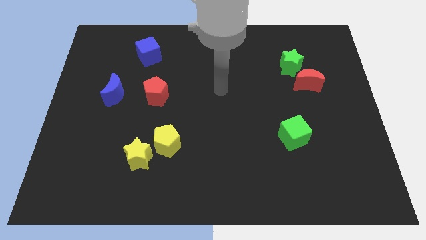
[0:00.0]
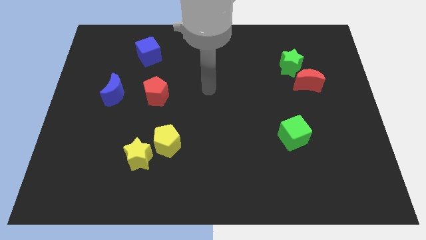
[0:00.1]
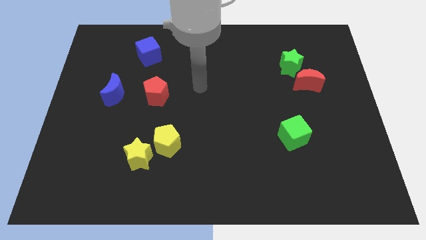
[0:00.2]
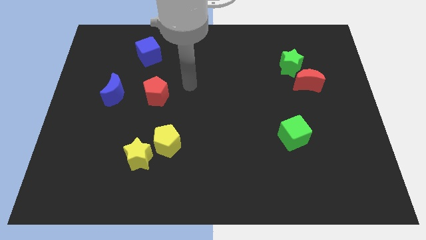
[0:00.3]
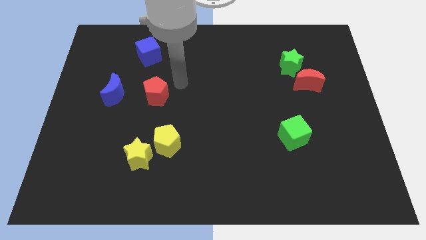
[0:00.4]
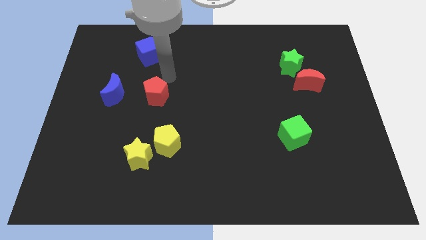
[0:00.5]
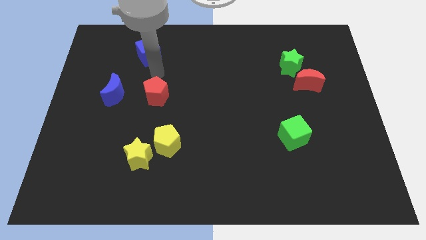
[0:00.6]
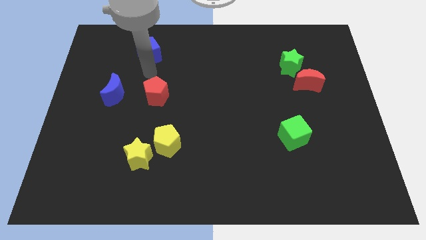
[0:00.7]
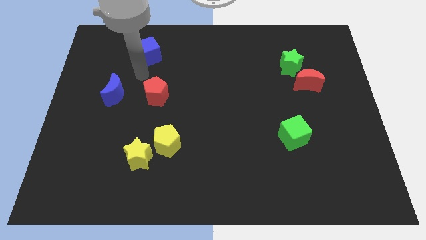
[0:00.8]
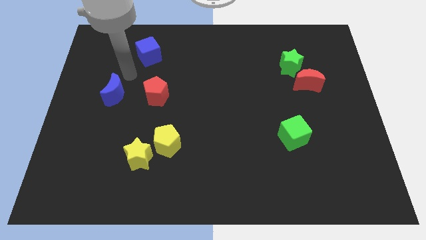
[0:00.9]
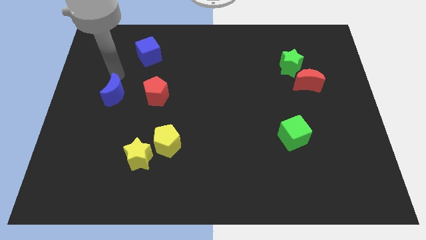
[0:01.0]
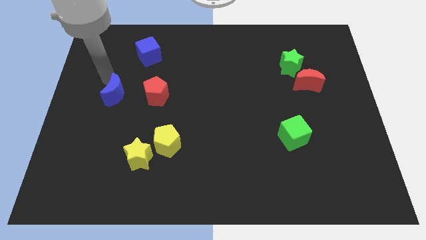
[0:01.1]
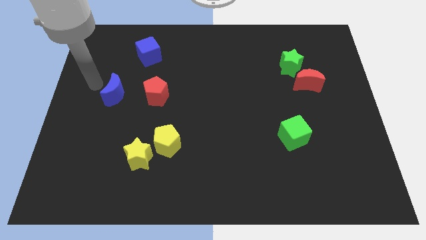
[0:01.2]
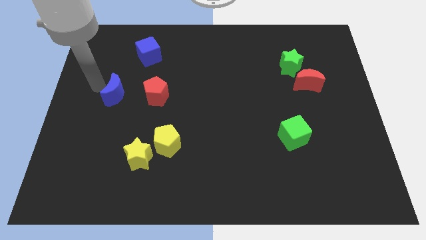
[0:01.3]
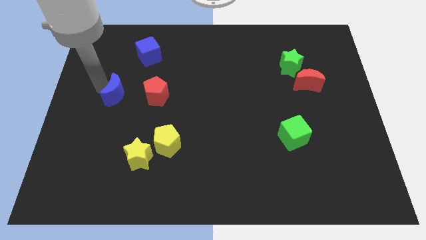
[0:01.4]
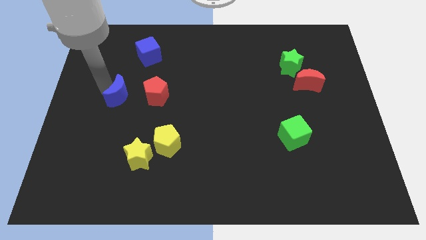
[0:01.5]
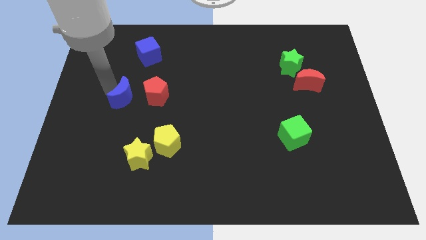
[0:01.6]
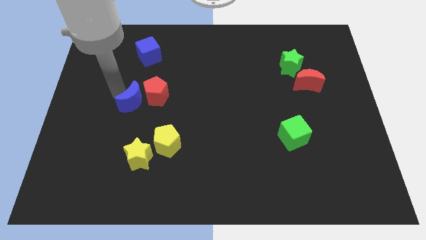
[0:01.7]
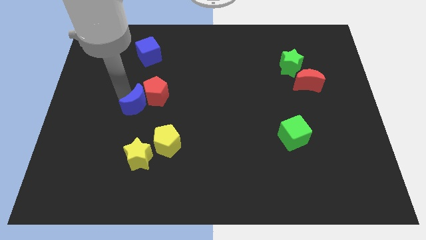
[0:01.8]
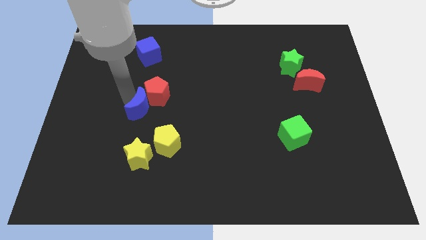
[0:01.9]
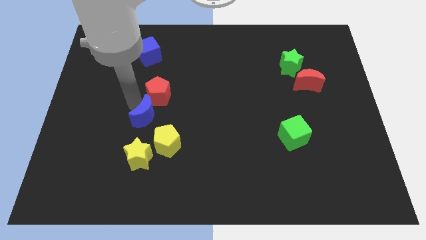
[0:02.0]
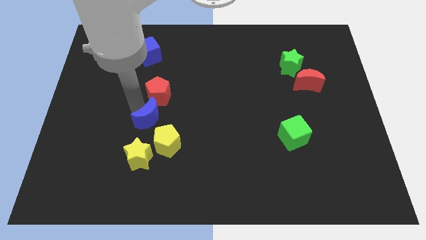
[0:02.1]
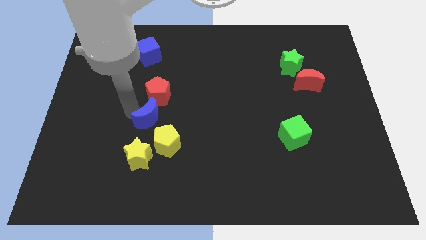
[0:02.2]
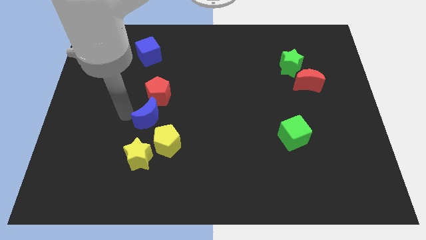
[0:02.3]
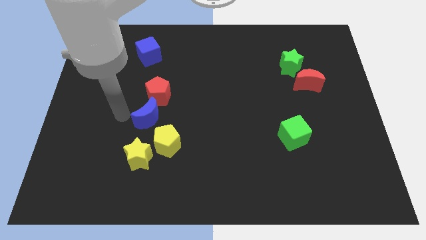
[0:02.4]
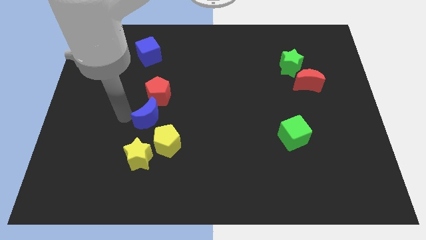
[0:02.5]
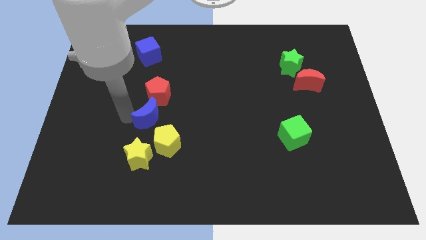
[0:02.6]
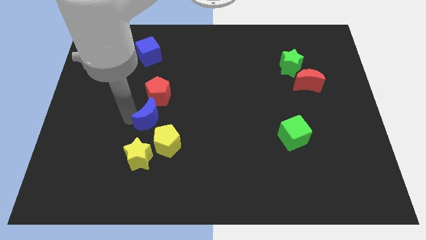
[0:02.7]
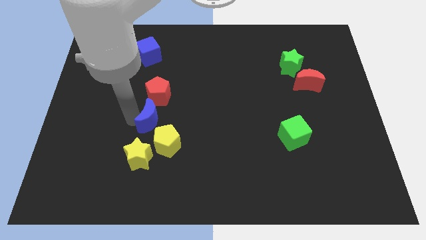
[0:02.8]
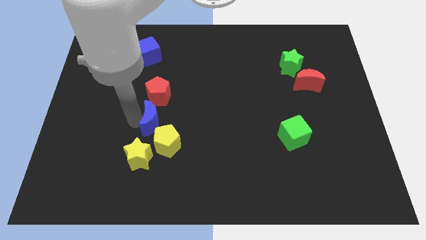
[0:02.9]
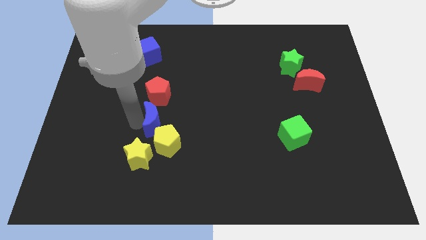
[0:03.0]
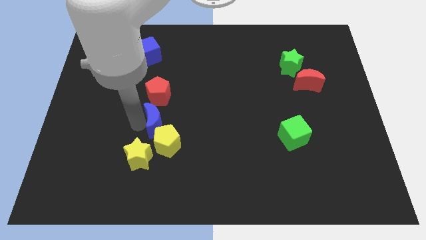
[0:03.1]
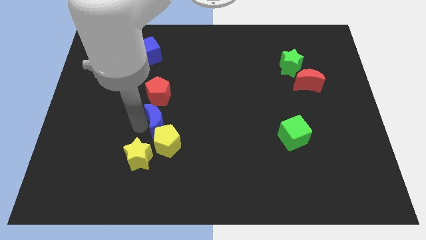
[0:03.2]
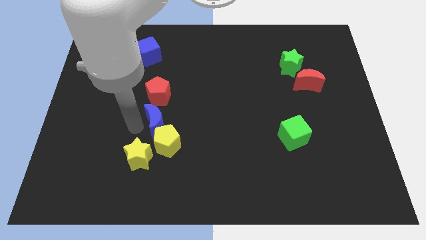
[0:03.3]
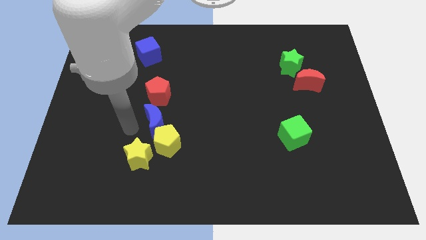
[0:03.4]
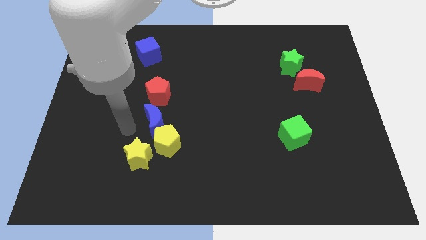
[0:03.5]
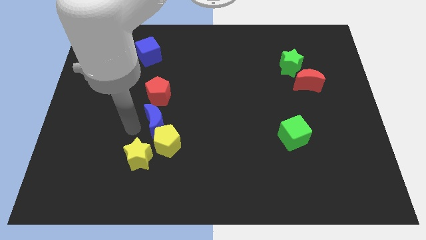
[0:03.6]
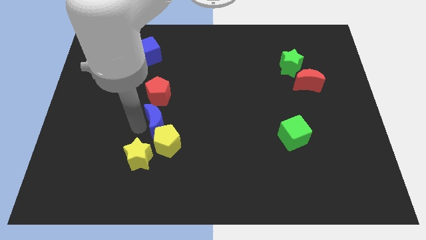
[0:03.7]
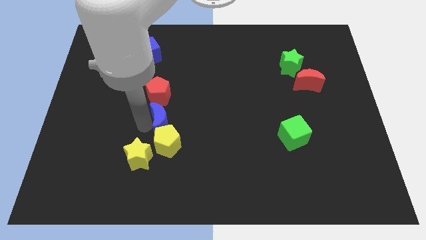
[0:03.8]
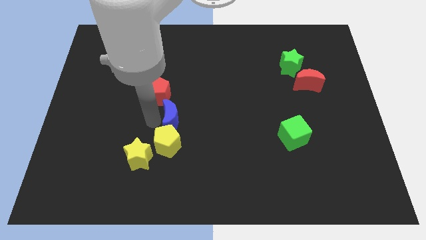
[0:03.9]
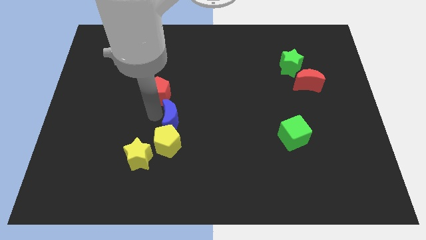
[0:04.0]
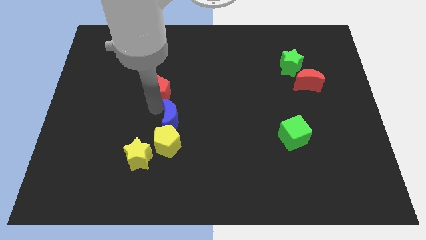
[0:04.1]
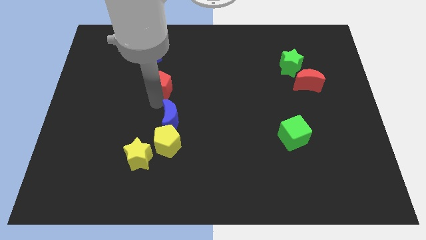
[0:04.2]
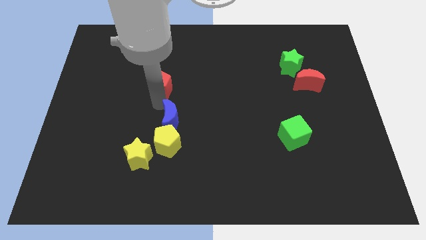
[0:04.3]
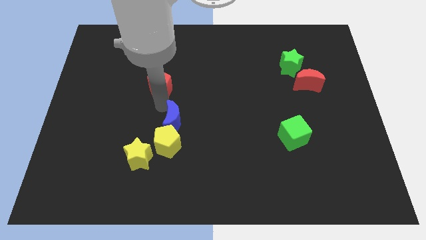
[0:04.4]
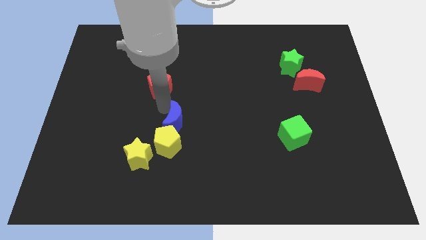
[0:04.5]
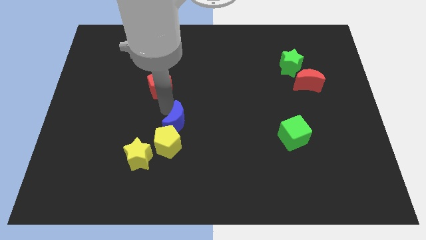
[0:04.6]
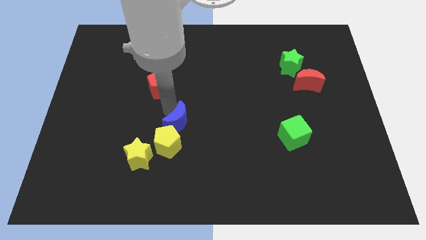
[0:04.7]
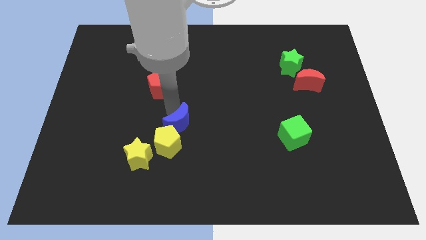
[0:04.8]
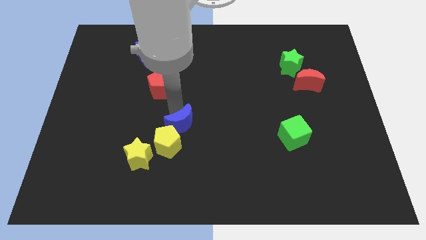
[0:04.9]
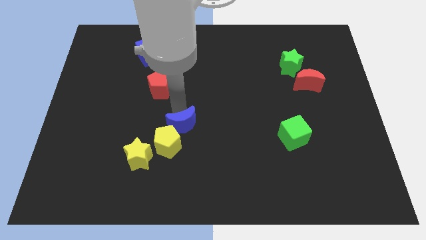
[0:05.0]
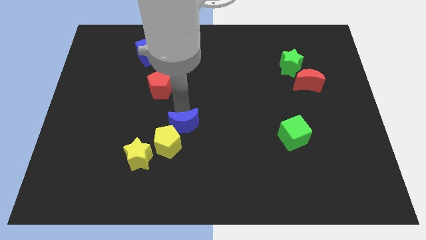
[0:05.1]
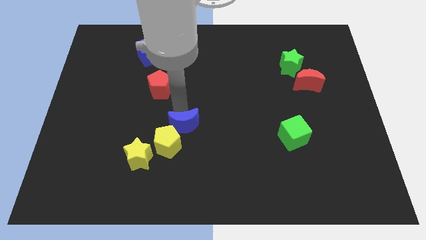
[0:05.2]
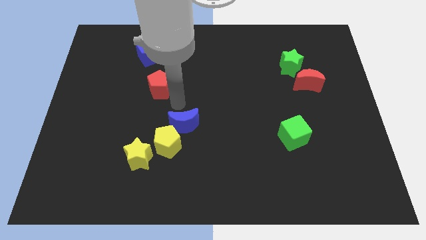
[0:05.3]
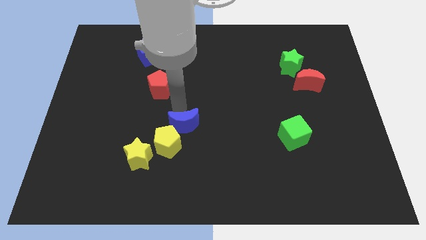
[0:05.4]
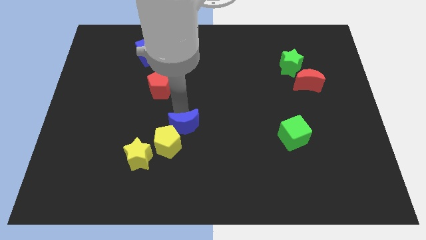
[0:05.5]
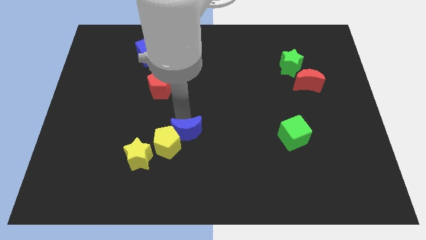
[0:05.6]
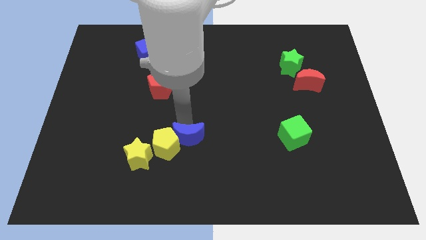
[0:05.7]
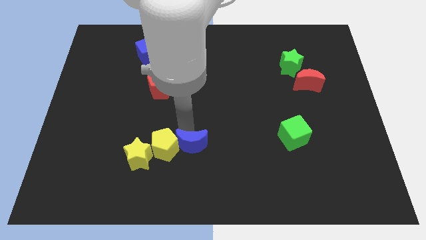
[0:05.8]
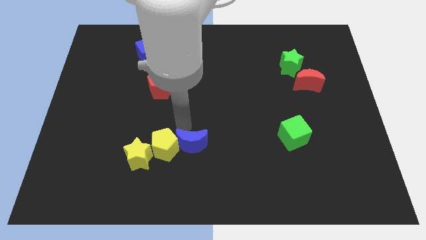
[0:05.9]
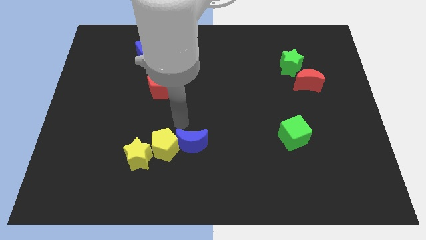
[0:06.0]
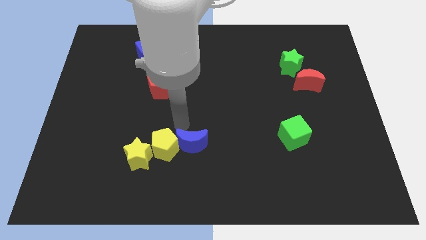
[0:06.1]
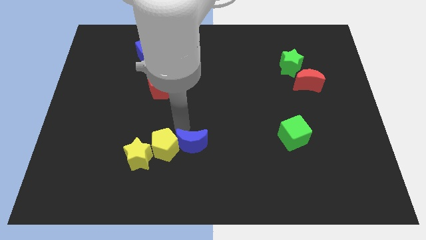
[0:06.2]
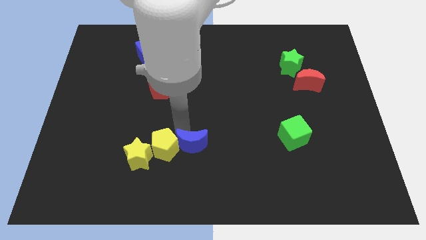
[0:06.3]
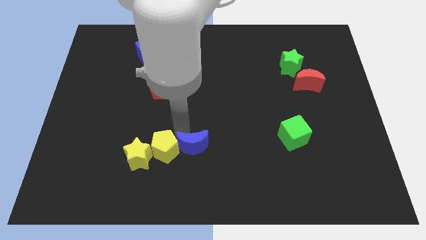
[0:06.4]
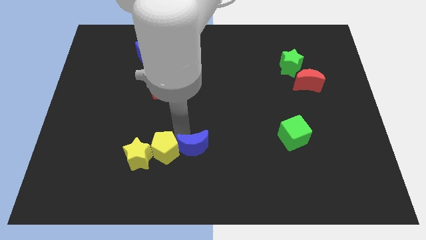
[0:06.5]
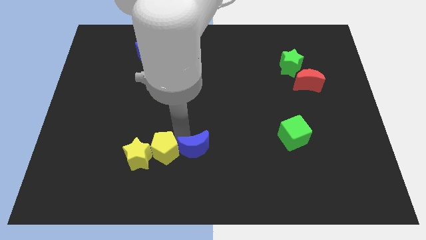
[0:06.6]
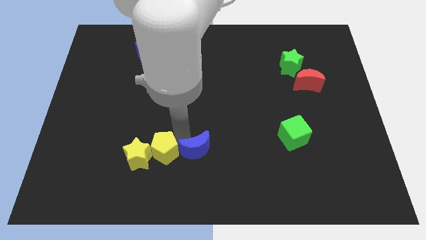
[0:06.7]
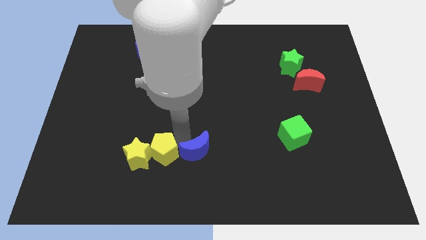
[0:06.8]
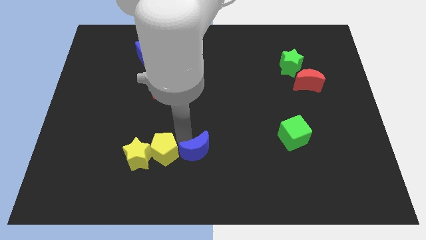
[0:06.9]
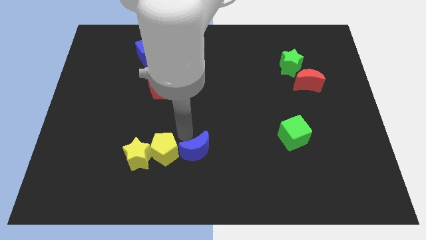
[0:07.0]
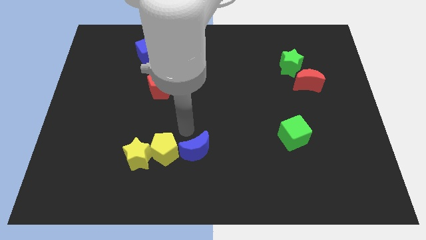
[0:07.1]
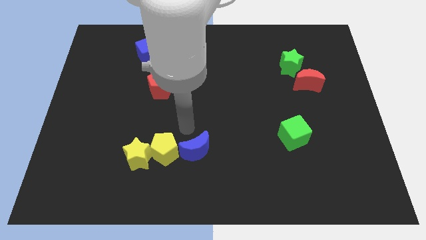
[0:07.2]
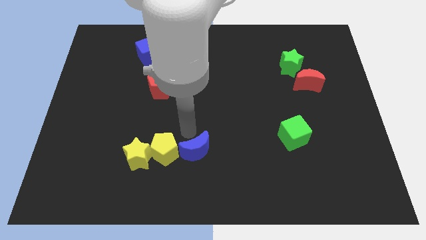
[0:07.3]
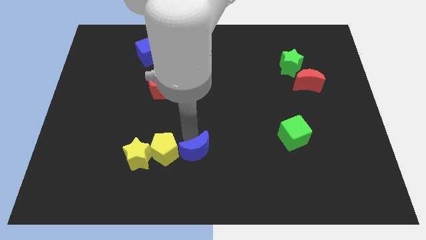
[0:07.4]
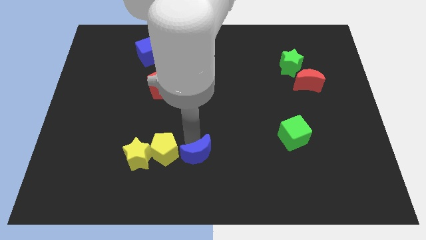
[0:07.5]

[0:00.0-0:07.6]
slide the blue moon to the bottom

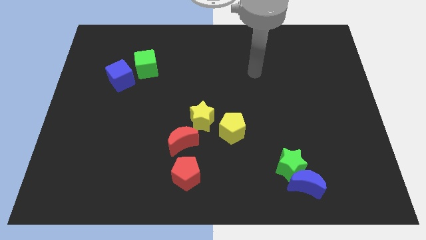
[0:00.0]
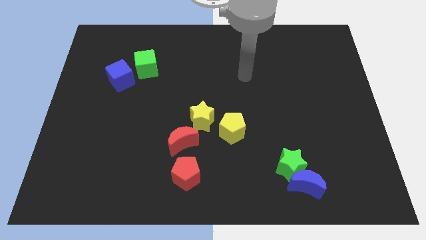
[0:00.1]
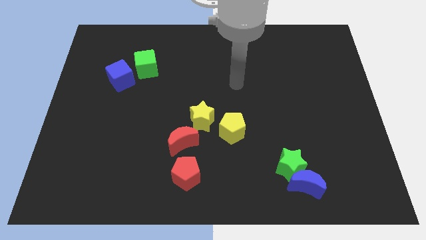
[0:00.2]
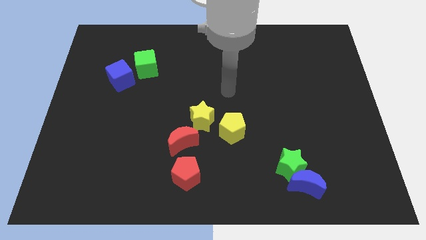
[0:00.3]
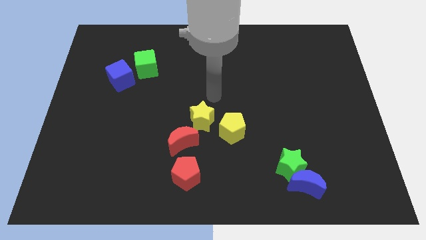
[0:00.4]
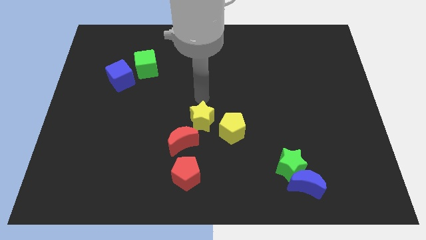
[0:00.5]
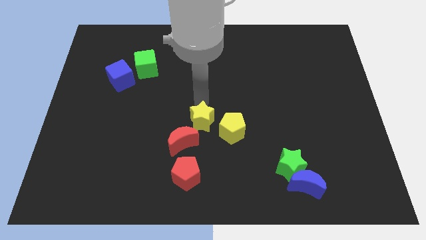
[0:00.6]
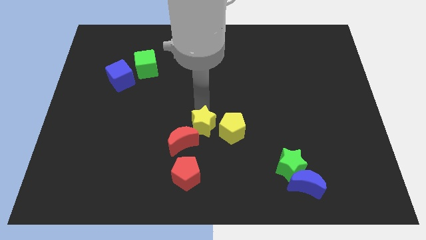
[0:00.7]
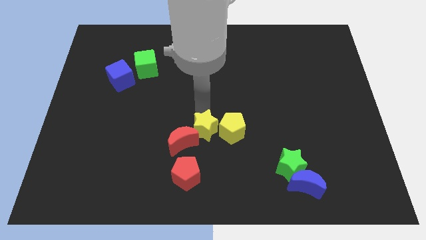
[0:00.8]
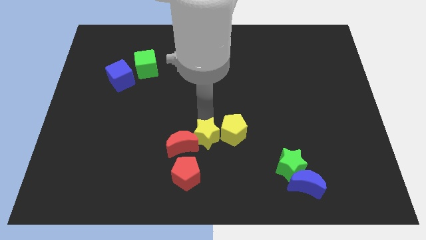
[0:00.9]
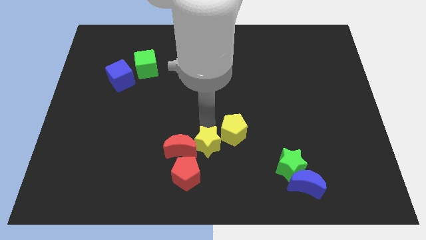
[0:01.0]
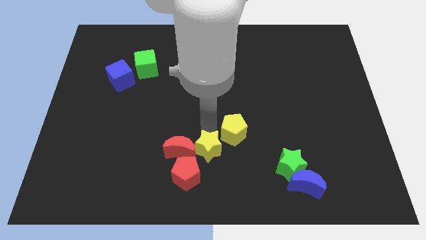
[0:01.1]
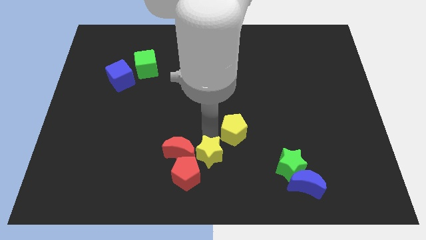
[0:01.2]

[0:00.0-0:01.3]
push the yellow star to the bottom side
